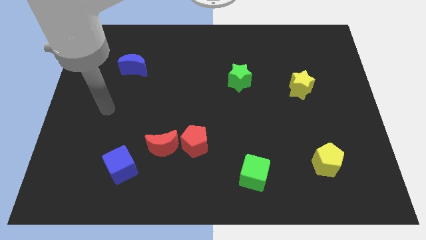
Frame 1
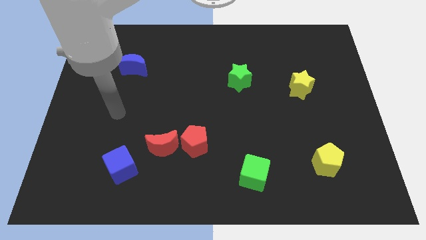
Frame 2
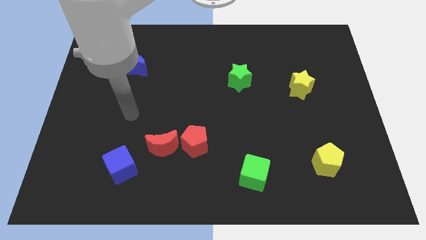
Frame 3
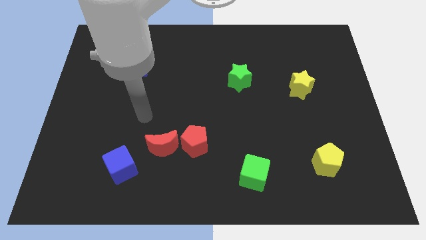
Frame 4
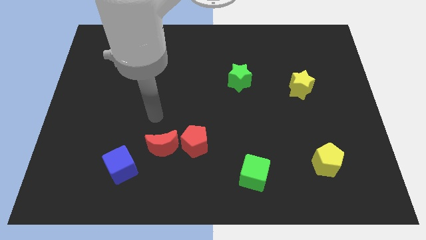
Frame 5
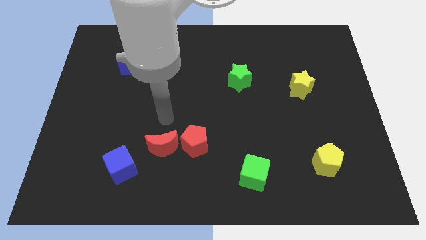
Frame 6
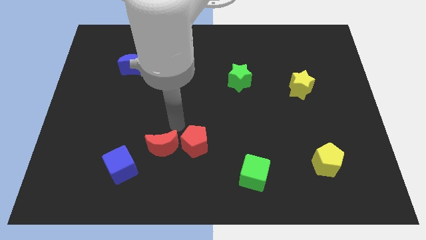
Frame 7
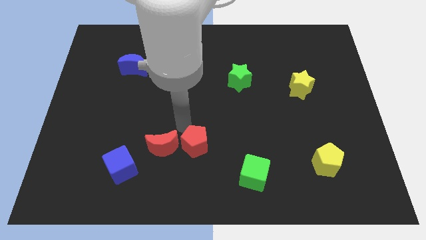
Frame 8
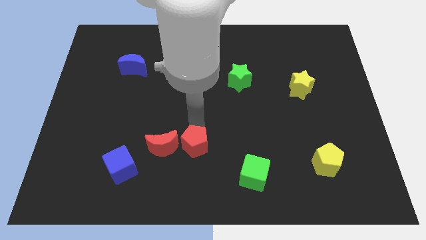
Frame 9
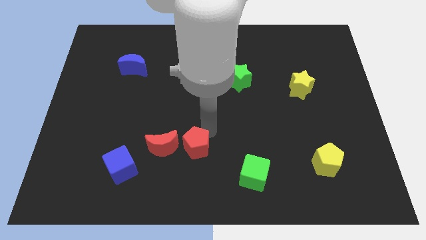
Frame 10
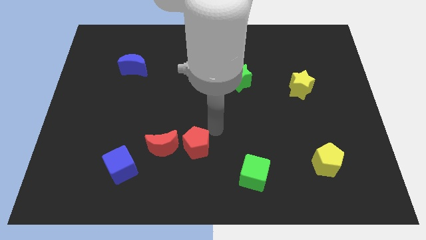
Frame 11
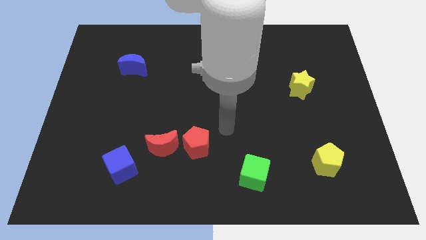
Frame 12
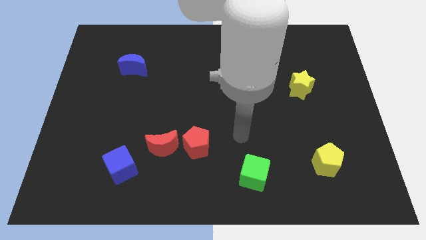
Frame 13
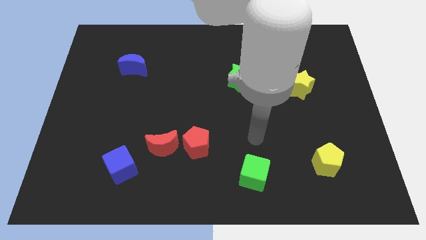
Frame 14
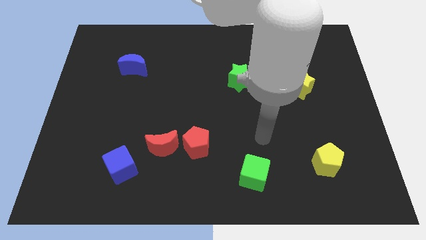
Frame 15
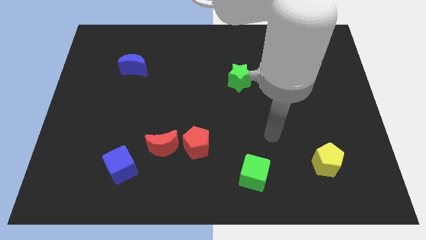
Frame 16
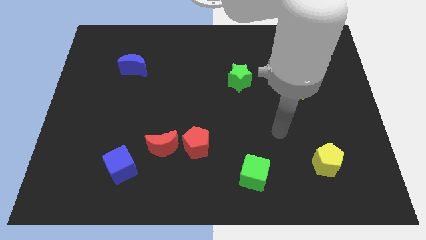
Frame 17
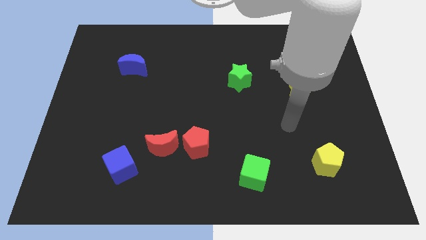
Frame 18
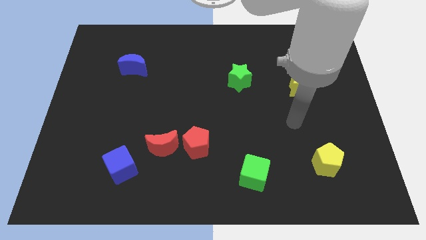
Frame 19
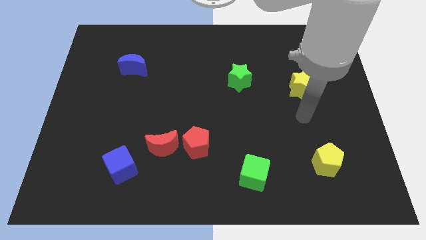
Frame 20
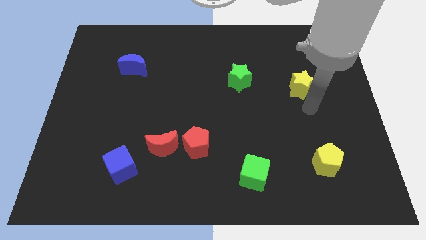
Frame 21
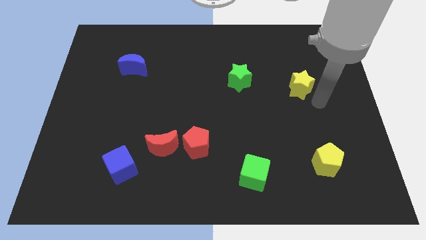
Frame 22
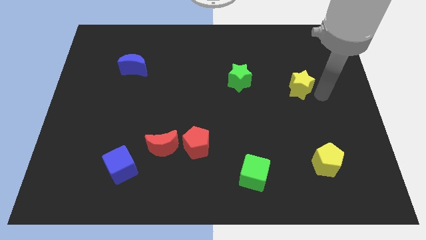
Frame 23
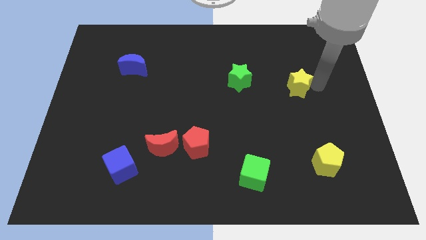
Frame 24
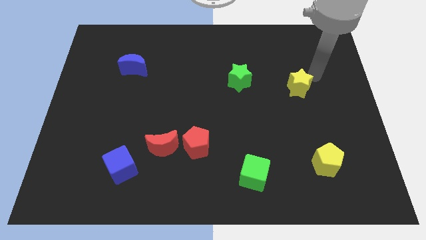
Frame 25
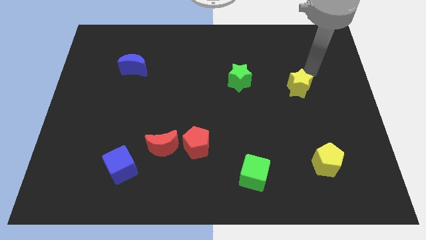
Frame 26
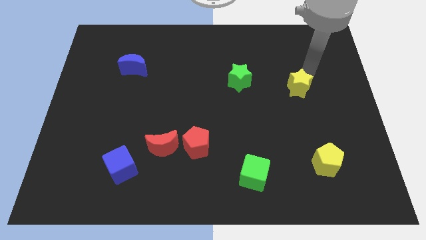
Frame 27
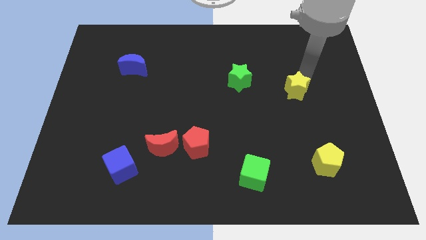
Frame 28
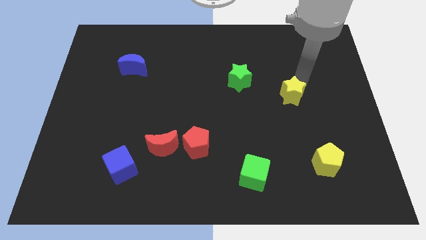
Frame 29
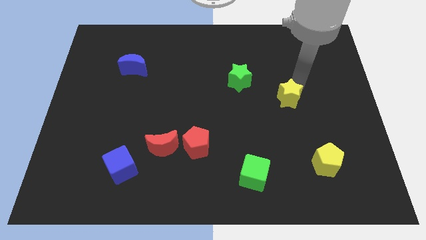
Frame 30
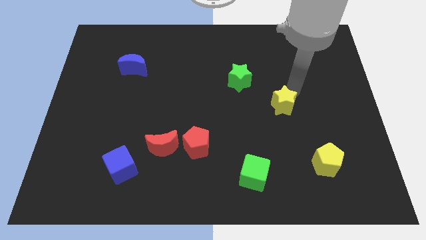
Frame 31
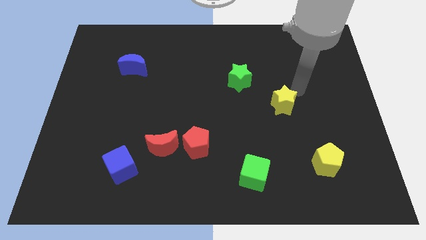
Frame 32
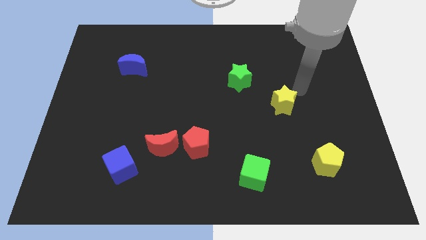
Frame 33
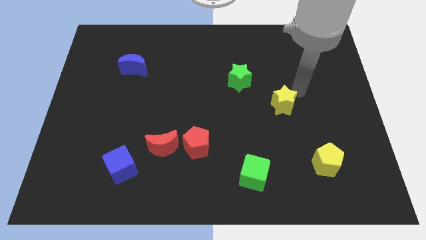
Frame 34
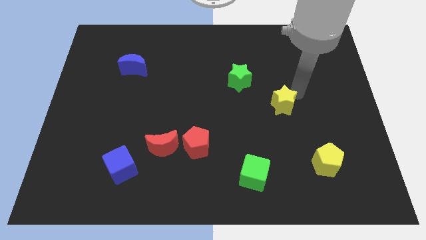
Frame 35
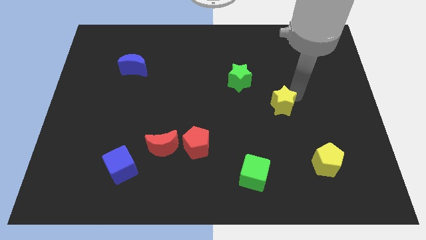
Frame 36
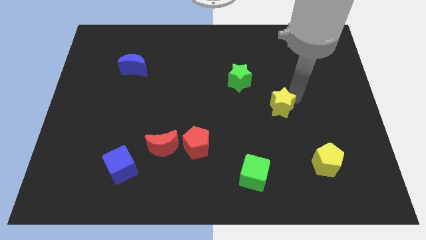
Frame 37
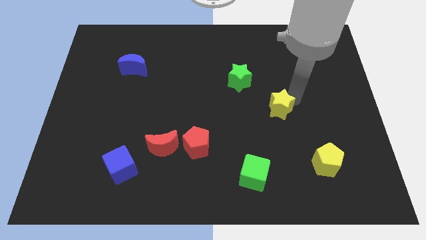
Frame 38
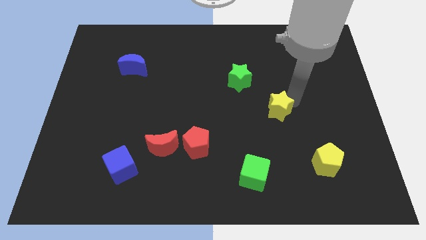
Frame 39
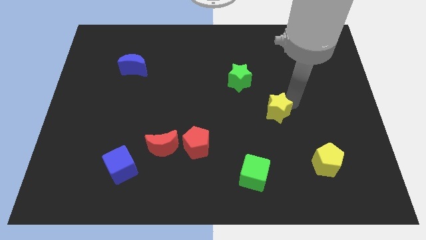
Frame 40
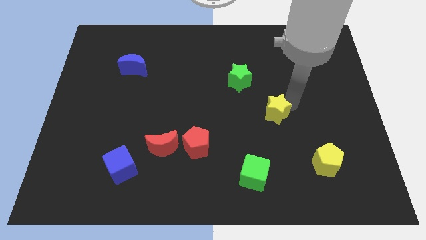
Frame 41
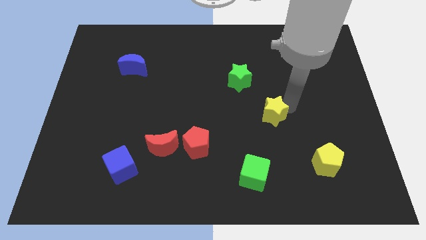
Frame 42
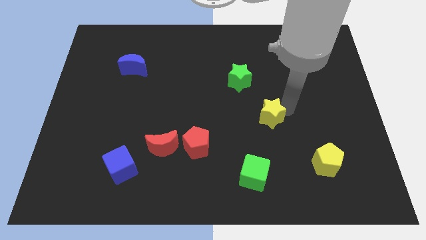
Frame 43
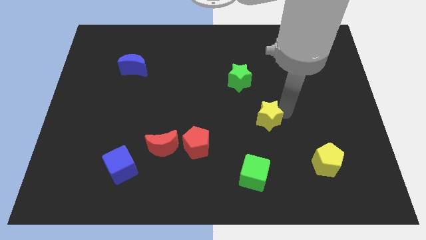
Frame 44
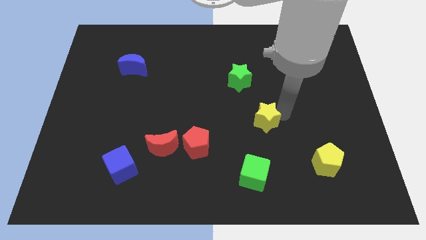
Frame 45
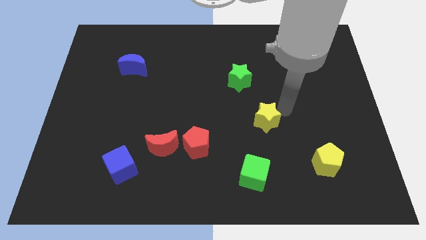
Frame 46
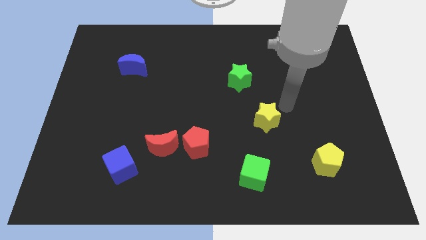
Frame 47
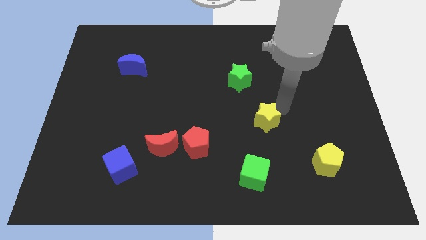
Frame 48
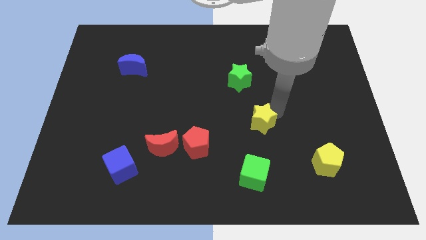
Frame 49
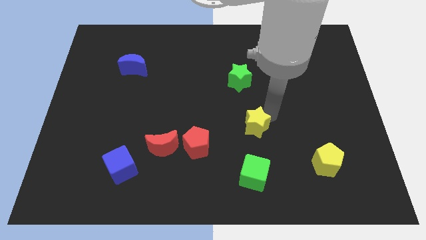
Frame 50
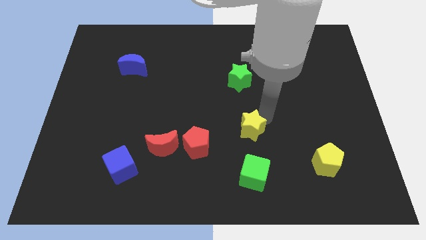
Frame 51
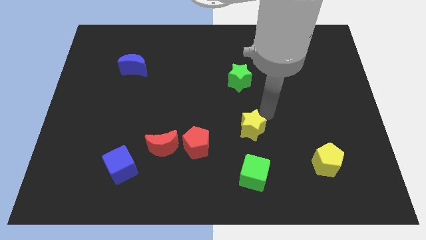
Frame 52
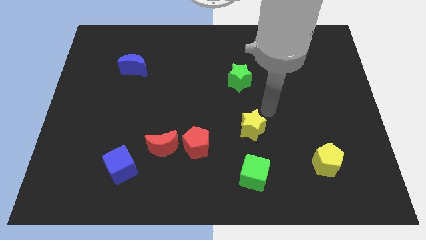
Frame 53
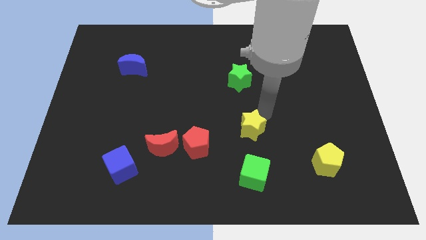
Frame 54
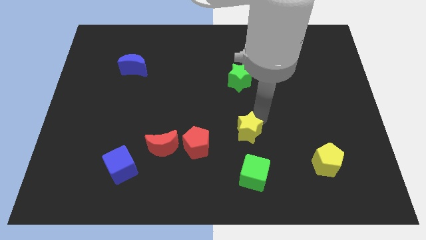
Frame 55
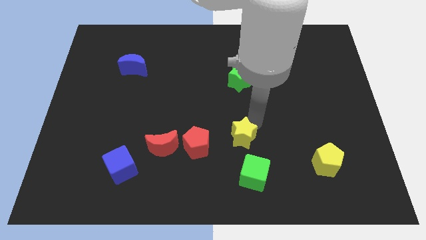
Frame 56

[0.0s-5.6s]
slide the yellow star down and left

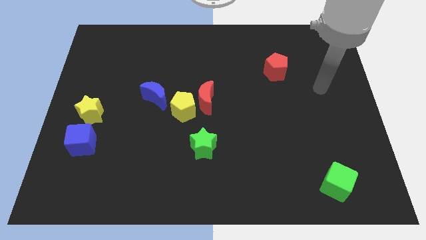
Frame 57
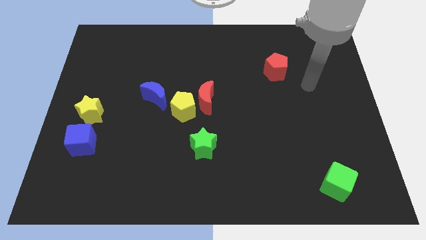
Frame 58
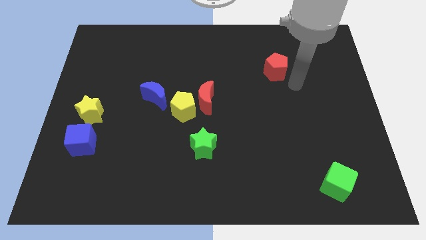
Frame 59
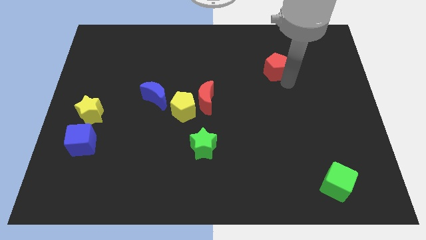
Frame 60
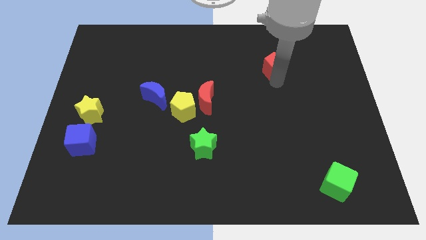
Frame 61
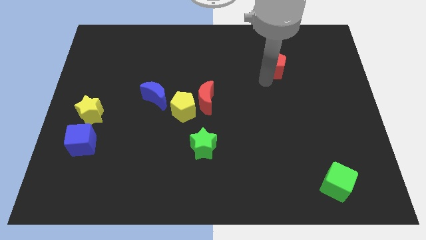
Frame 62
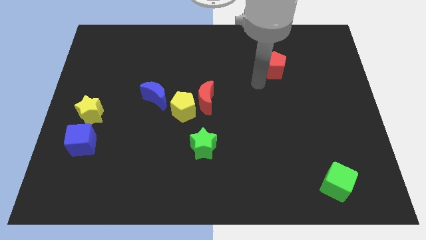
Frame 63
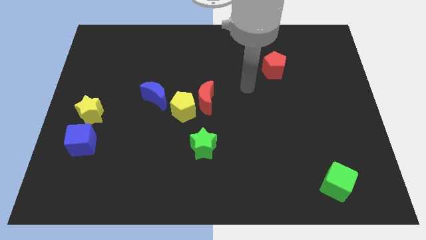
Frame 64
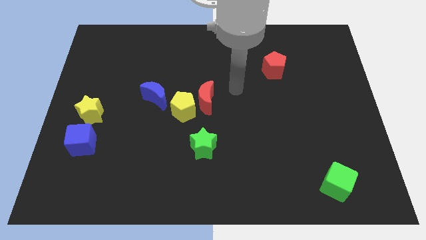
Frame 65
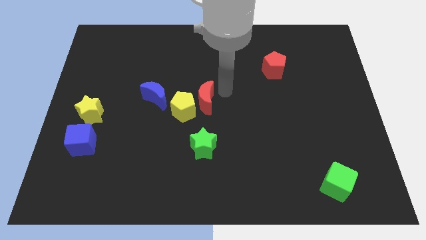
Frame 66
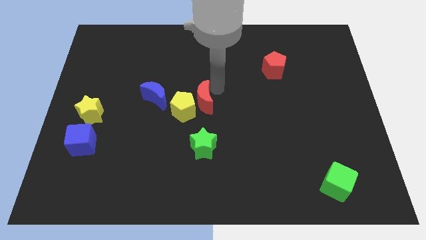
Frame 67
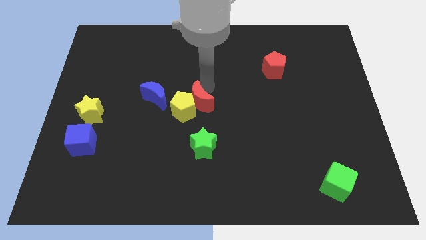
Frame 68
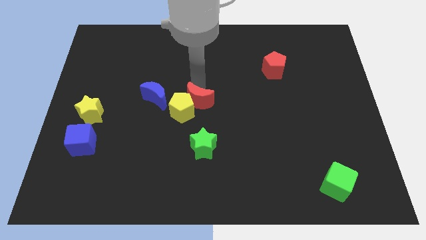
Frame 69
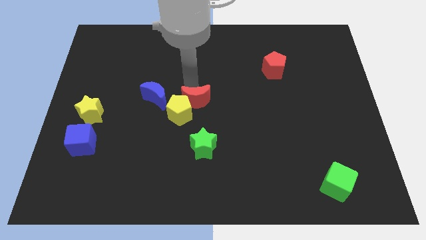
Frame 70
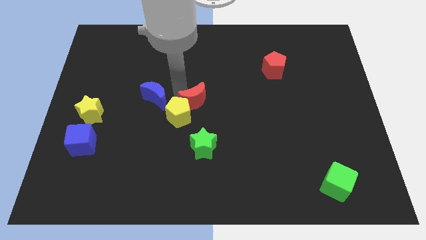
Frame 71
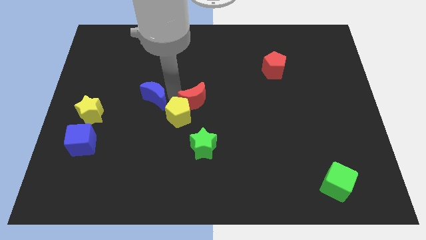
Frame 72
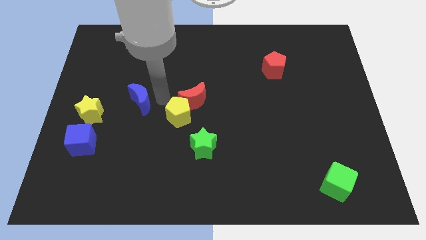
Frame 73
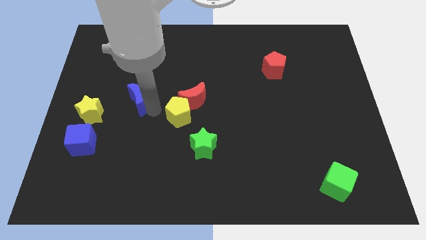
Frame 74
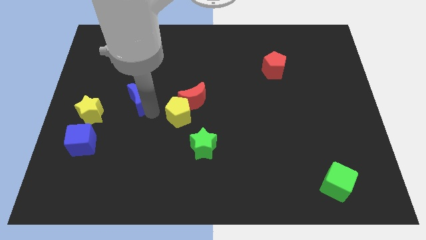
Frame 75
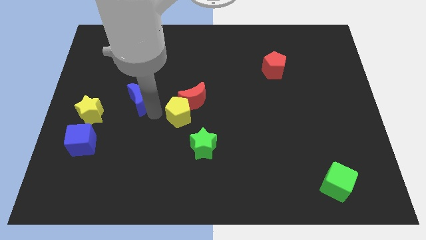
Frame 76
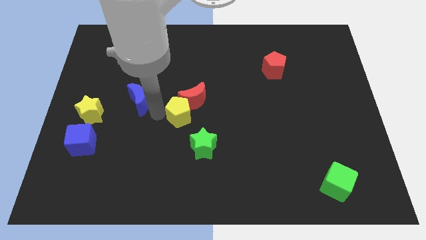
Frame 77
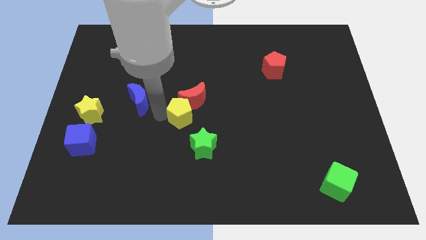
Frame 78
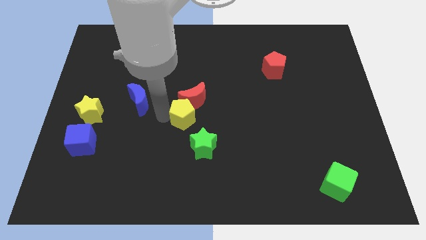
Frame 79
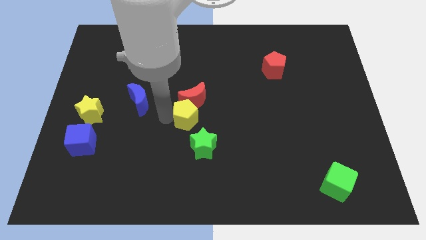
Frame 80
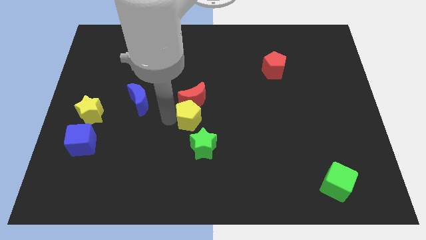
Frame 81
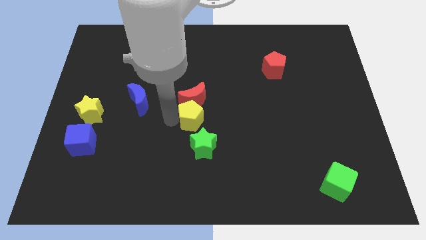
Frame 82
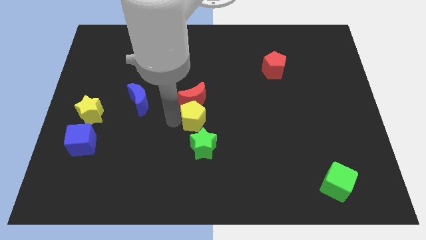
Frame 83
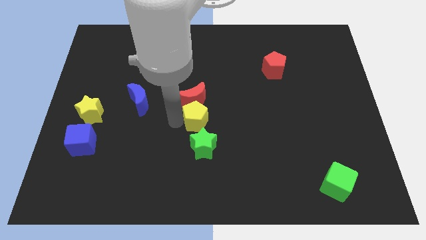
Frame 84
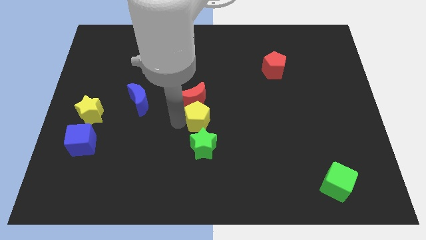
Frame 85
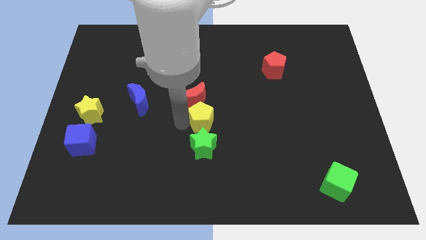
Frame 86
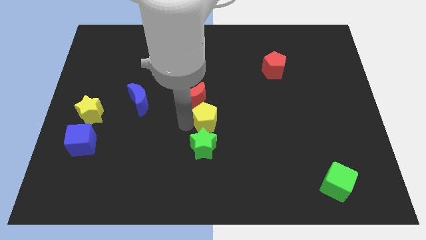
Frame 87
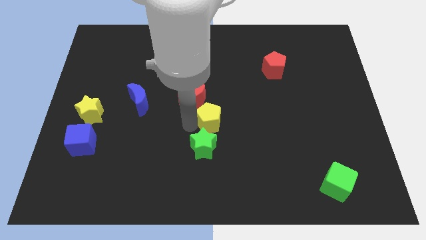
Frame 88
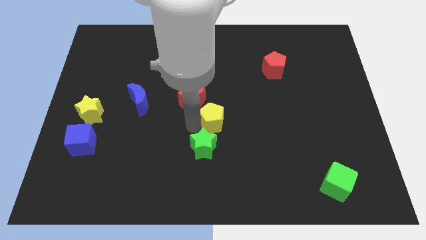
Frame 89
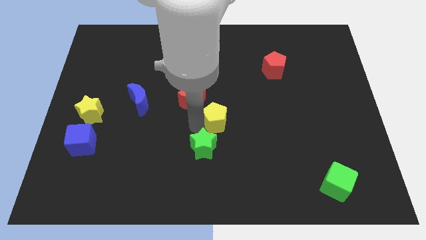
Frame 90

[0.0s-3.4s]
move the yellow pentagon a little to the right
